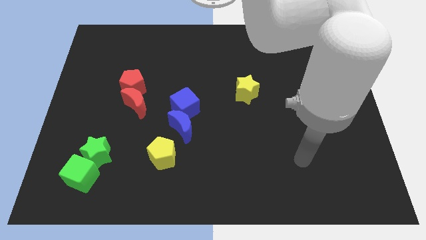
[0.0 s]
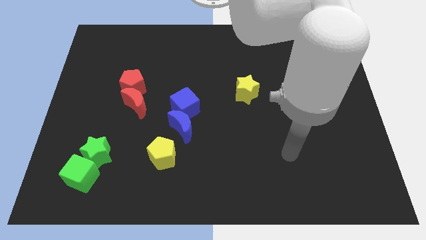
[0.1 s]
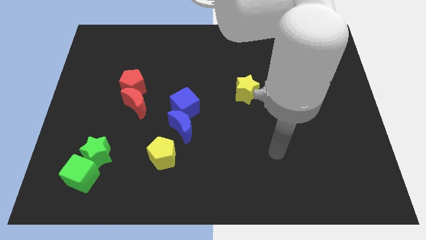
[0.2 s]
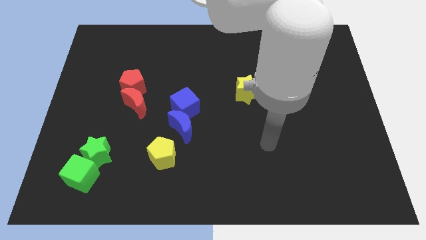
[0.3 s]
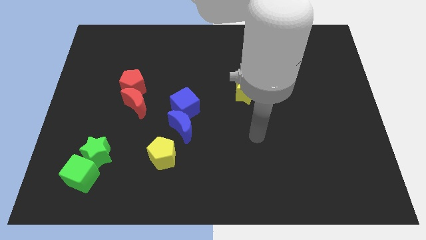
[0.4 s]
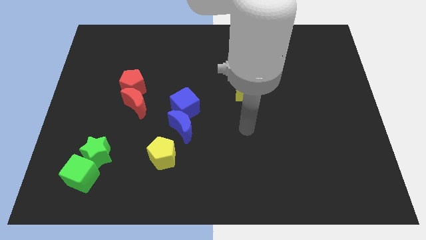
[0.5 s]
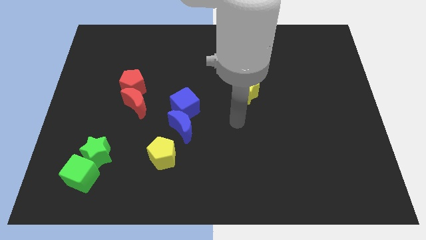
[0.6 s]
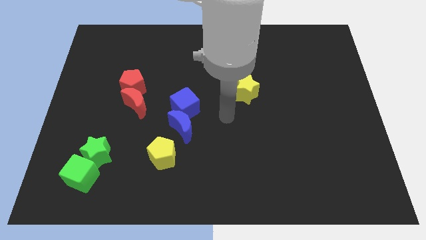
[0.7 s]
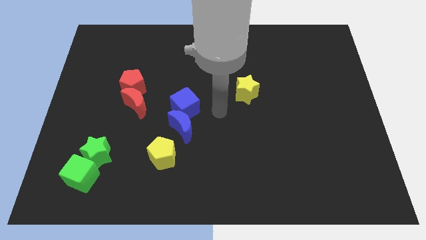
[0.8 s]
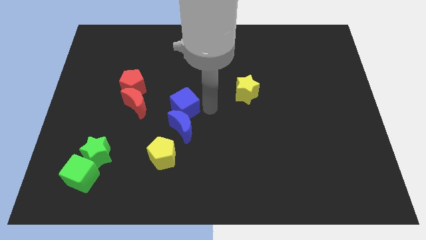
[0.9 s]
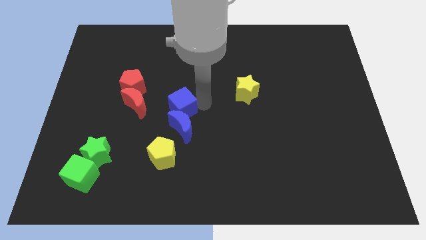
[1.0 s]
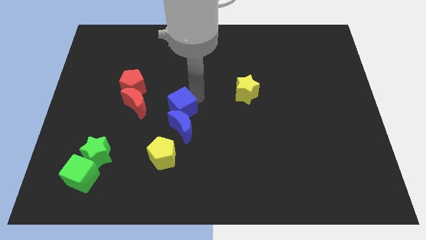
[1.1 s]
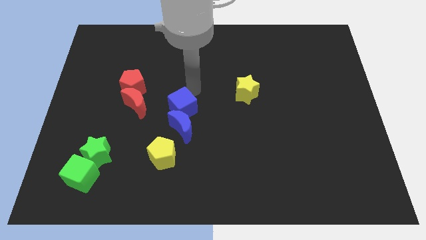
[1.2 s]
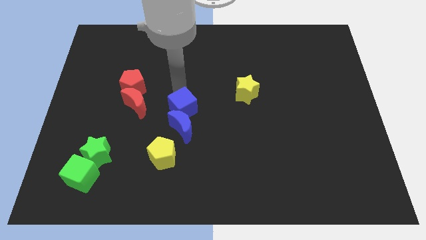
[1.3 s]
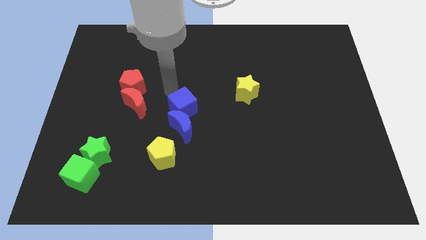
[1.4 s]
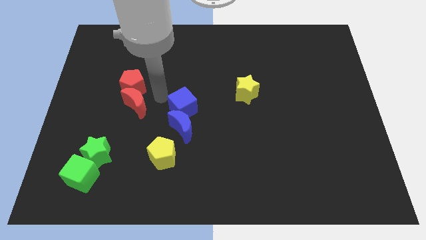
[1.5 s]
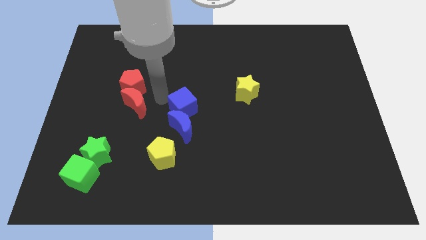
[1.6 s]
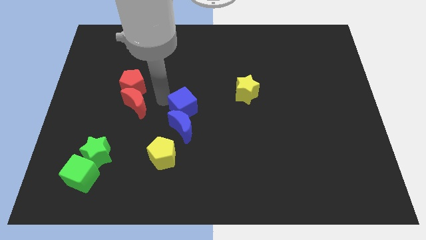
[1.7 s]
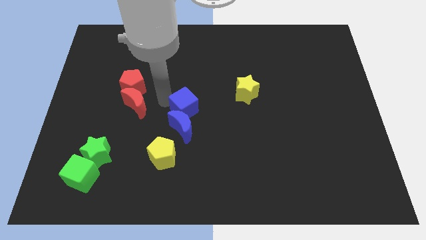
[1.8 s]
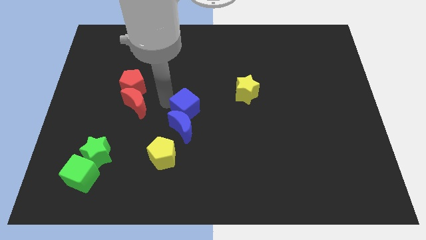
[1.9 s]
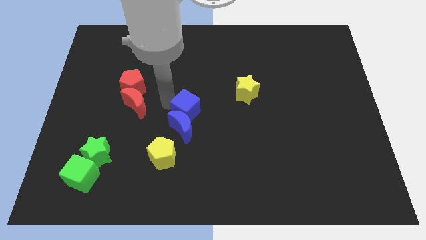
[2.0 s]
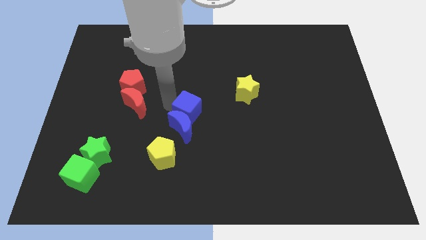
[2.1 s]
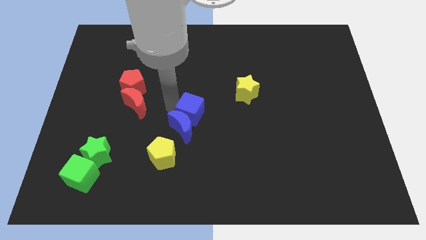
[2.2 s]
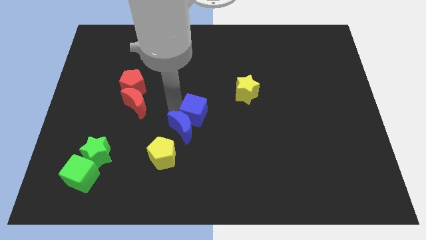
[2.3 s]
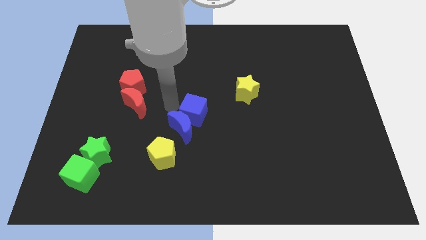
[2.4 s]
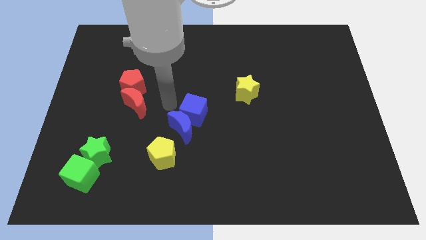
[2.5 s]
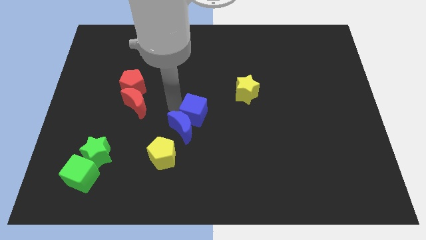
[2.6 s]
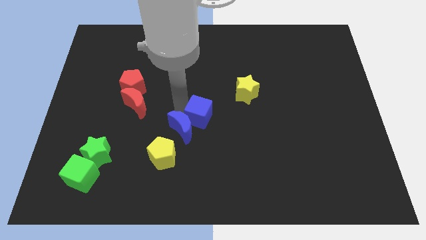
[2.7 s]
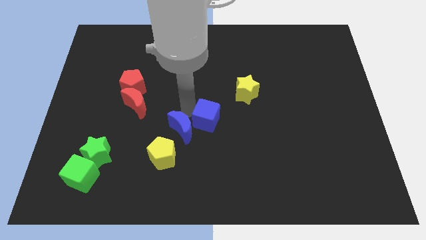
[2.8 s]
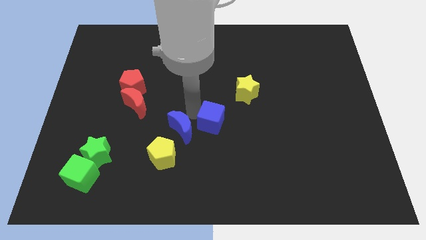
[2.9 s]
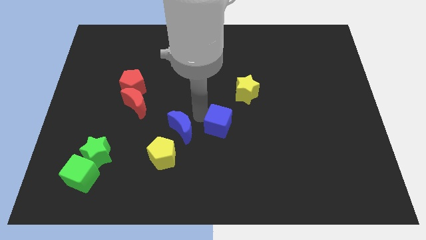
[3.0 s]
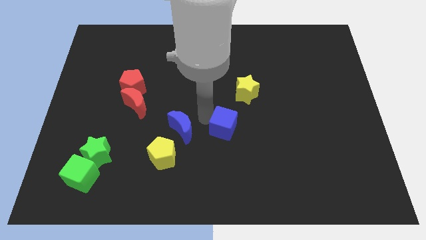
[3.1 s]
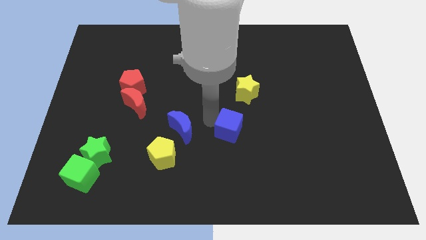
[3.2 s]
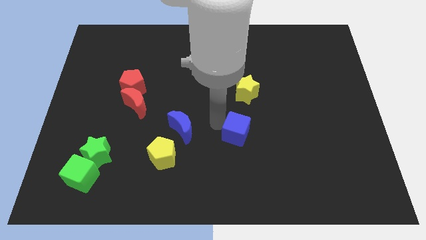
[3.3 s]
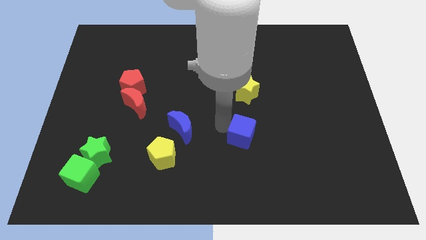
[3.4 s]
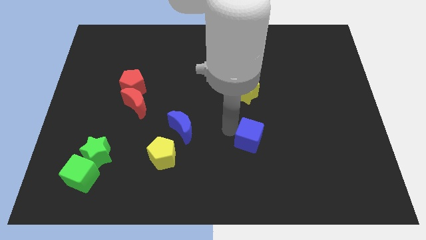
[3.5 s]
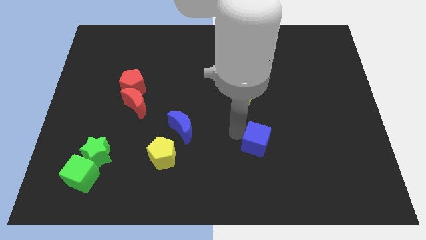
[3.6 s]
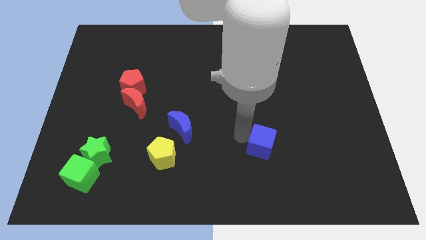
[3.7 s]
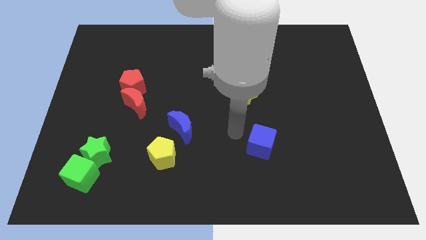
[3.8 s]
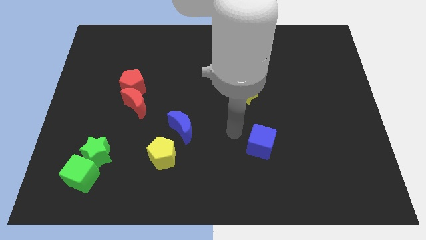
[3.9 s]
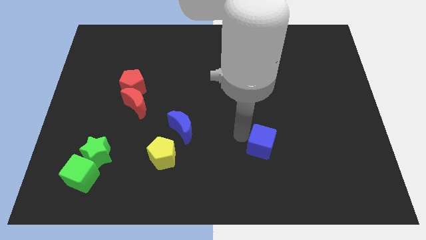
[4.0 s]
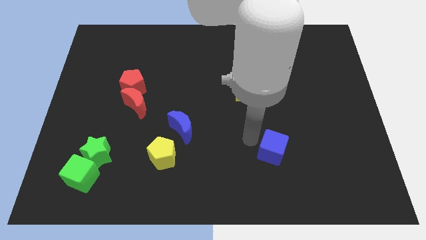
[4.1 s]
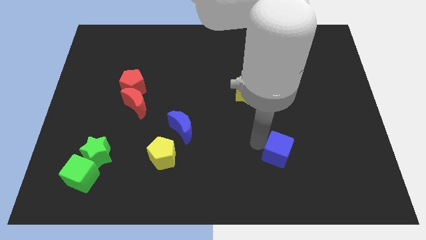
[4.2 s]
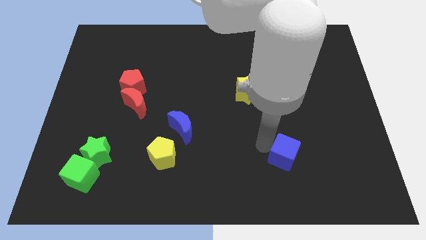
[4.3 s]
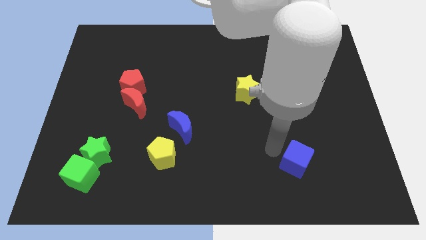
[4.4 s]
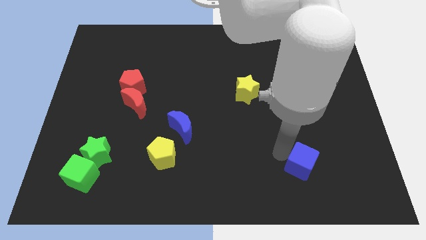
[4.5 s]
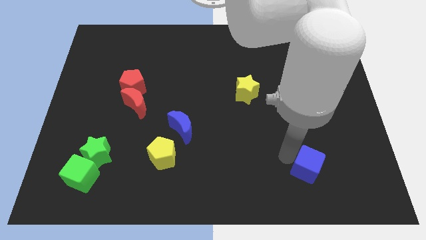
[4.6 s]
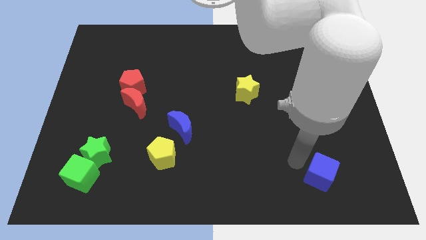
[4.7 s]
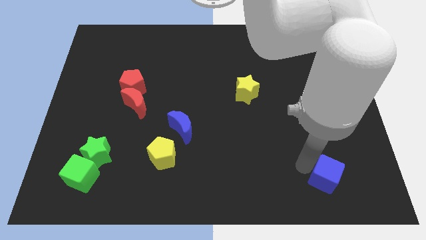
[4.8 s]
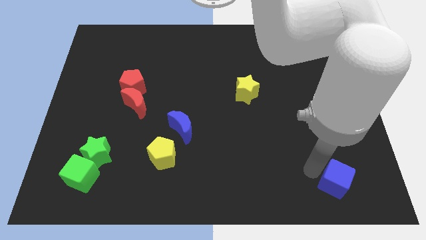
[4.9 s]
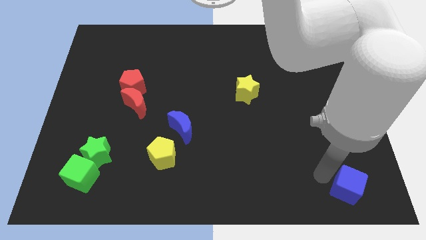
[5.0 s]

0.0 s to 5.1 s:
put the blue cube to the lower right corner

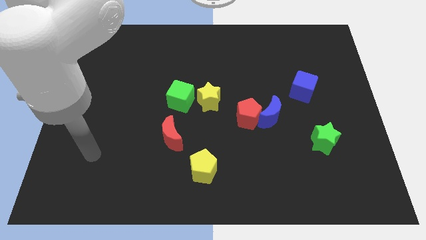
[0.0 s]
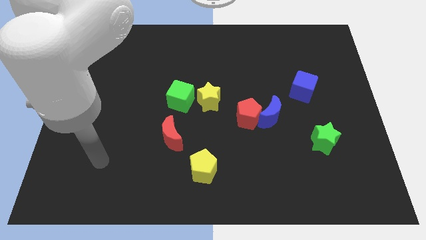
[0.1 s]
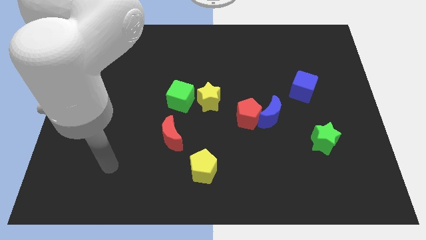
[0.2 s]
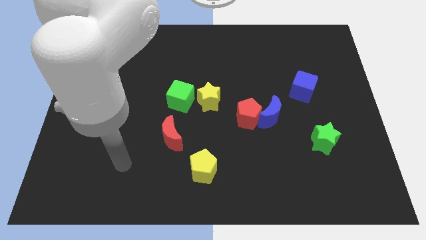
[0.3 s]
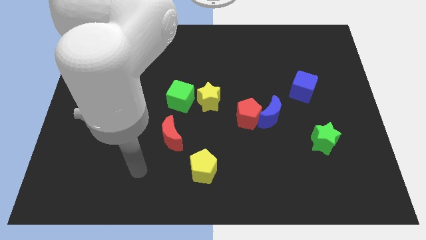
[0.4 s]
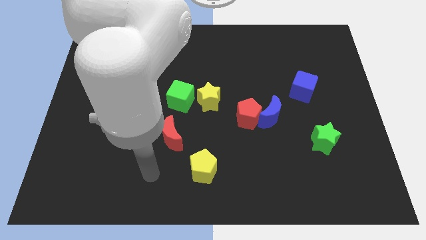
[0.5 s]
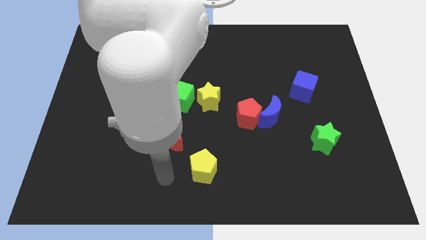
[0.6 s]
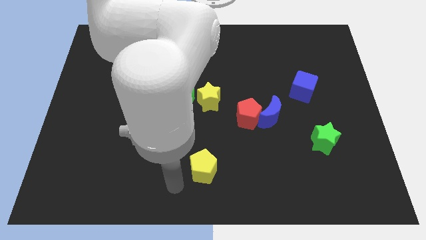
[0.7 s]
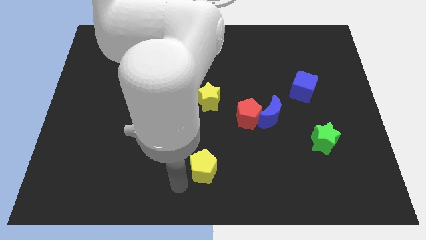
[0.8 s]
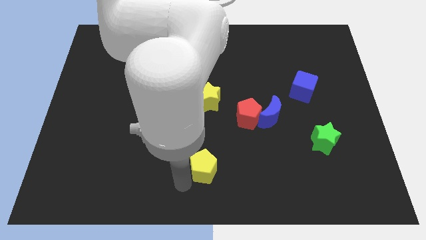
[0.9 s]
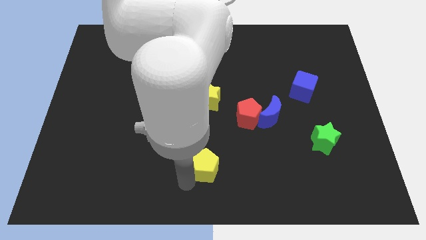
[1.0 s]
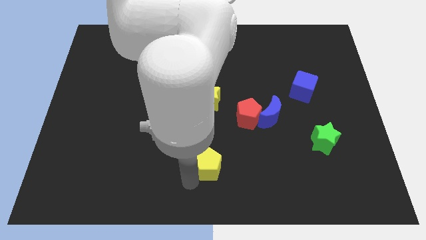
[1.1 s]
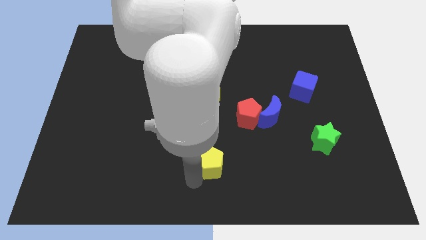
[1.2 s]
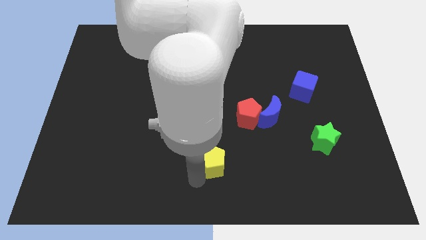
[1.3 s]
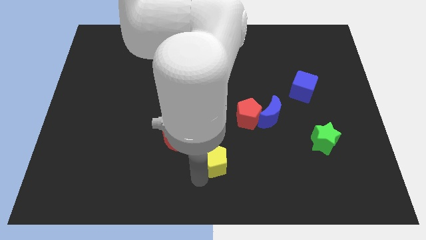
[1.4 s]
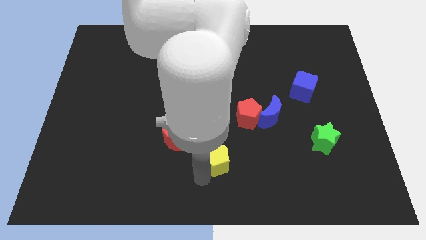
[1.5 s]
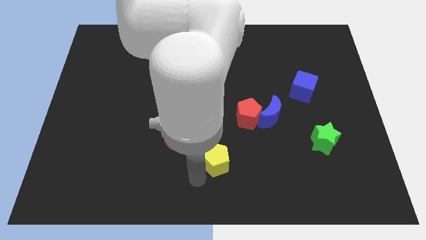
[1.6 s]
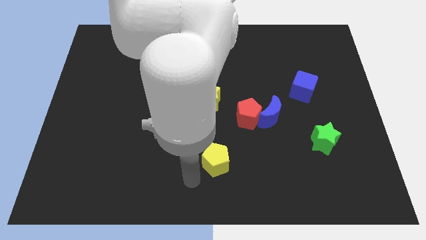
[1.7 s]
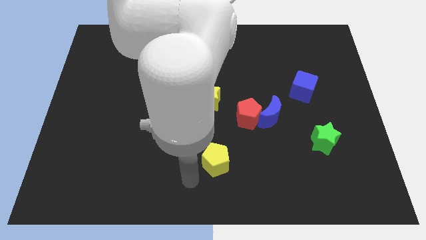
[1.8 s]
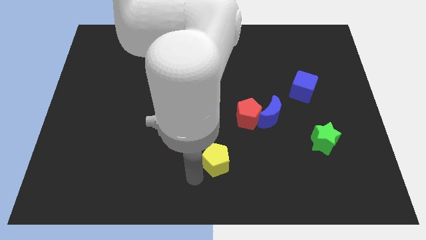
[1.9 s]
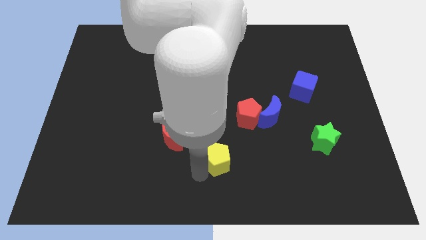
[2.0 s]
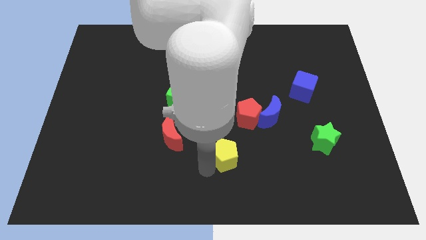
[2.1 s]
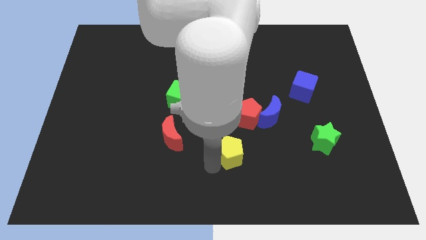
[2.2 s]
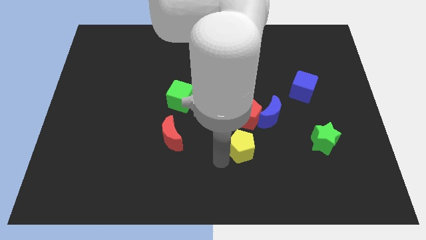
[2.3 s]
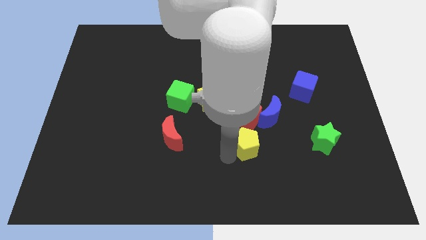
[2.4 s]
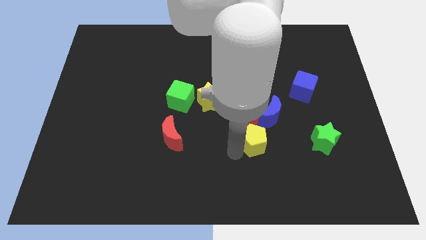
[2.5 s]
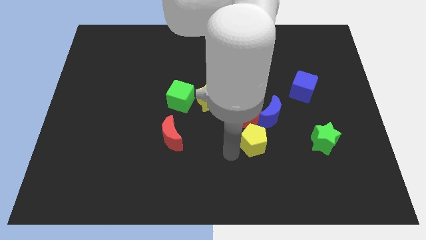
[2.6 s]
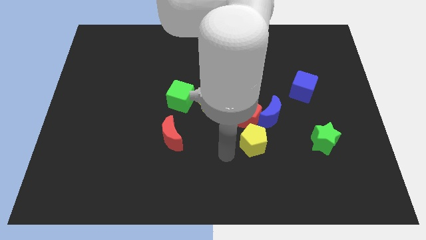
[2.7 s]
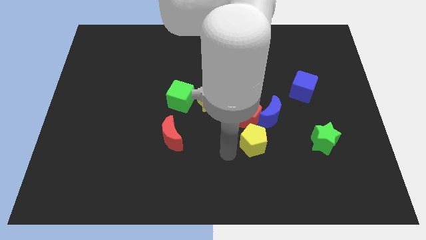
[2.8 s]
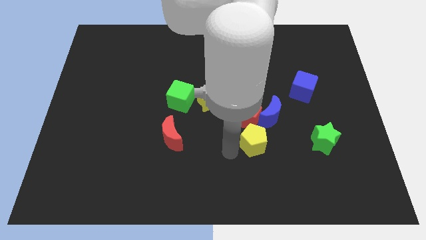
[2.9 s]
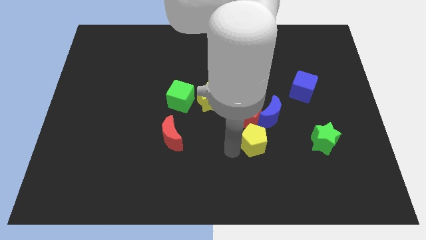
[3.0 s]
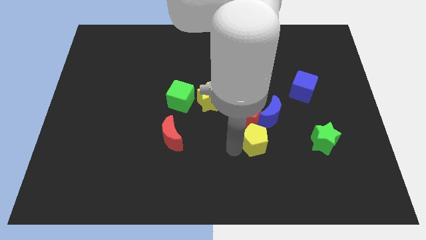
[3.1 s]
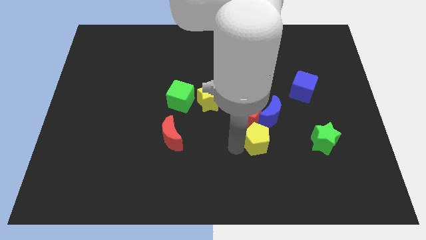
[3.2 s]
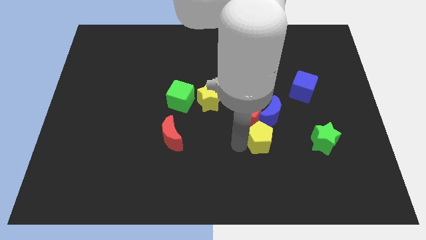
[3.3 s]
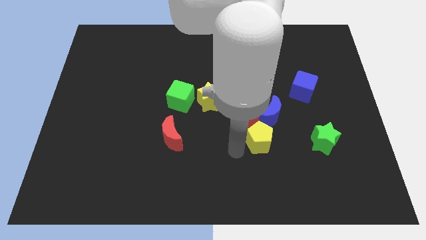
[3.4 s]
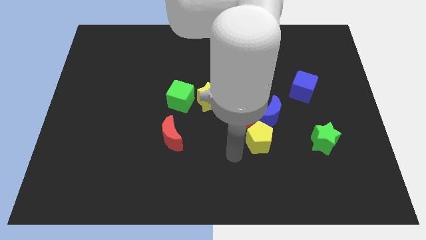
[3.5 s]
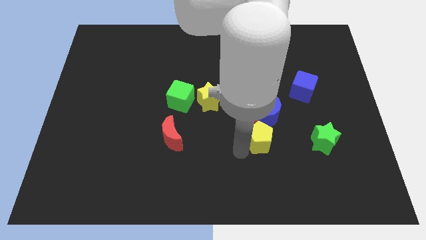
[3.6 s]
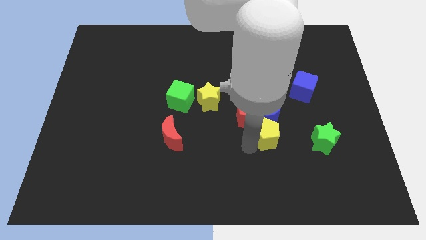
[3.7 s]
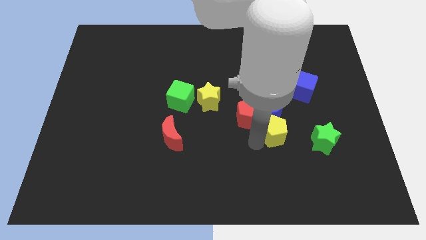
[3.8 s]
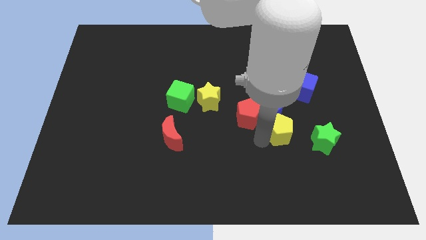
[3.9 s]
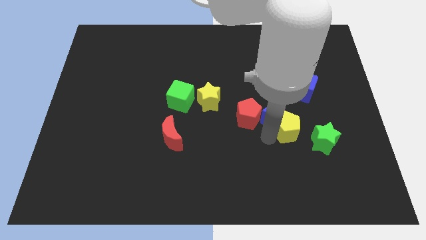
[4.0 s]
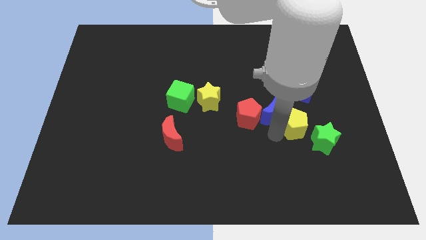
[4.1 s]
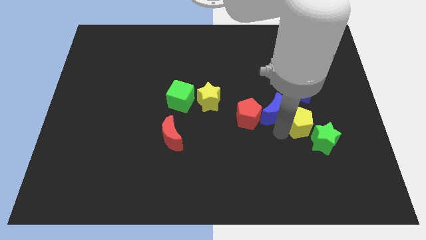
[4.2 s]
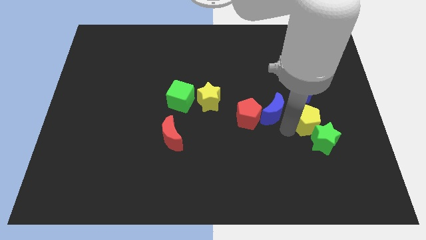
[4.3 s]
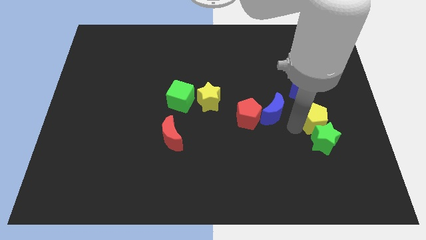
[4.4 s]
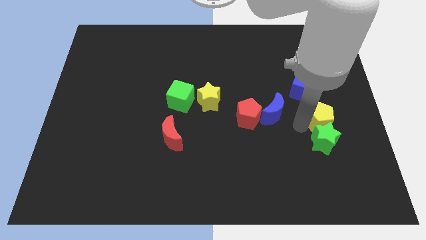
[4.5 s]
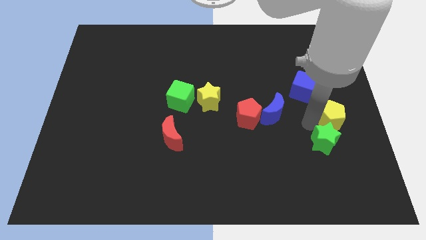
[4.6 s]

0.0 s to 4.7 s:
put the yellow pentagon to the center right
